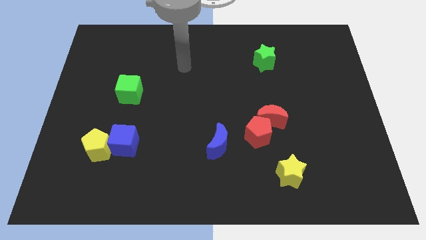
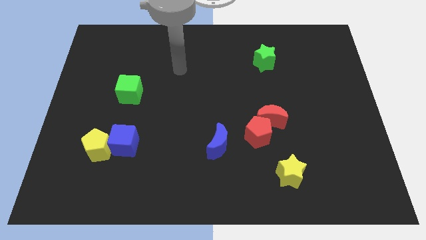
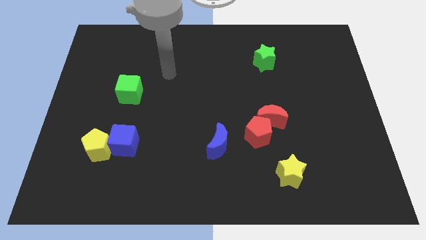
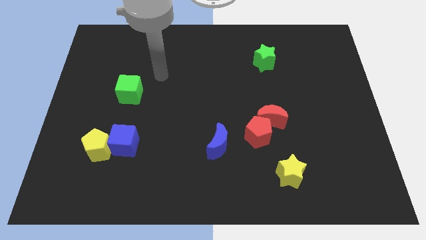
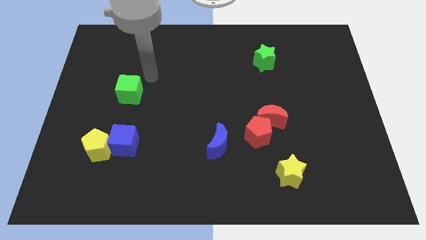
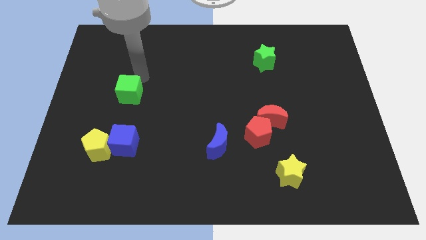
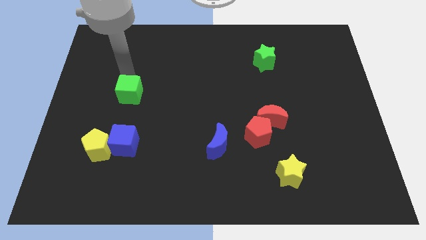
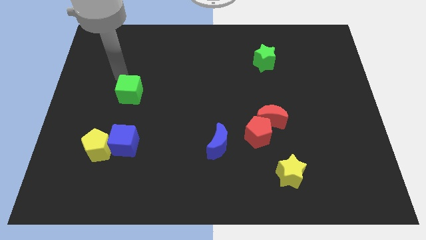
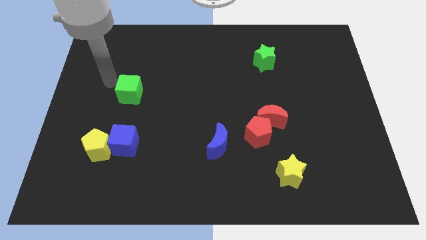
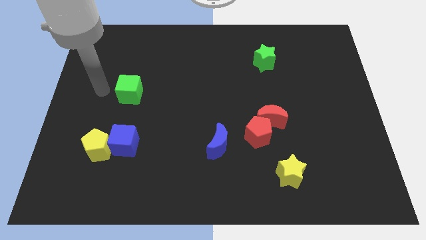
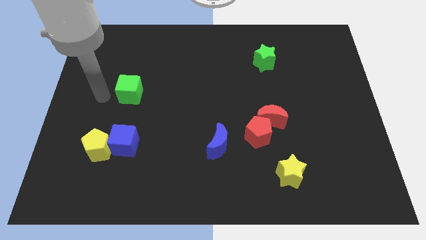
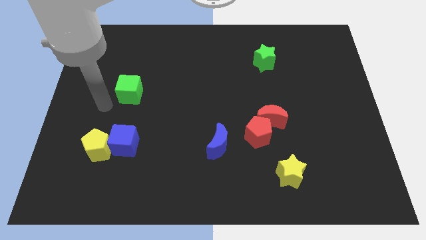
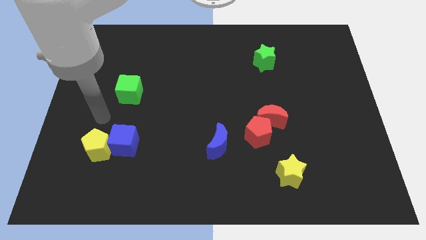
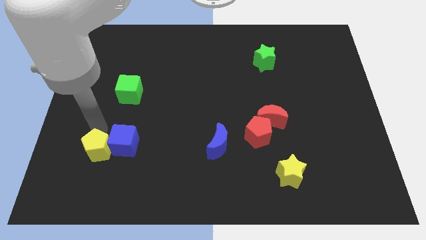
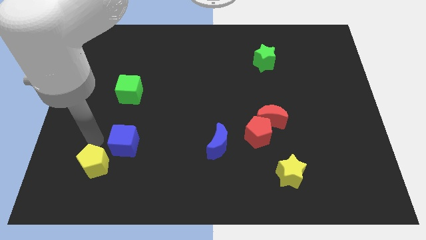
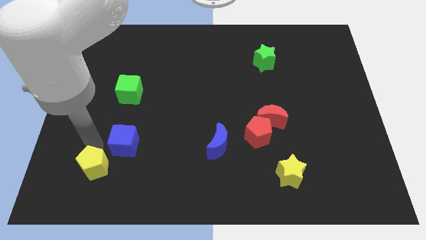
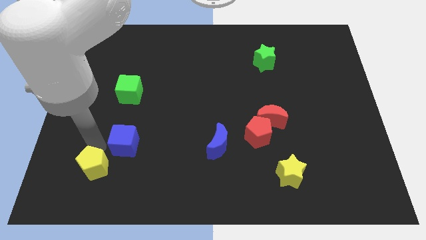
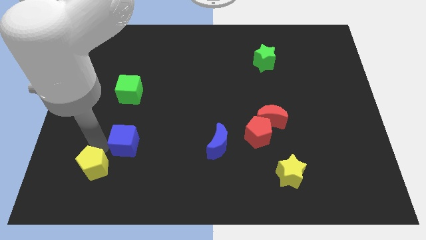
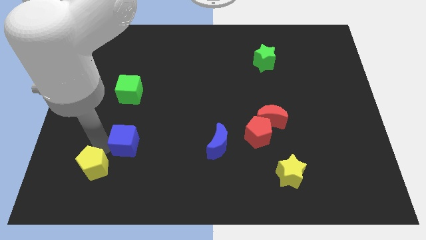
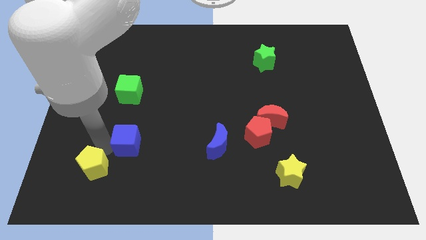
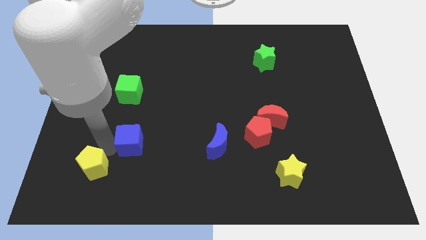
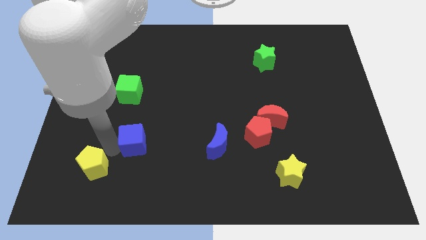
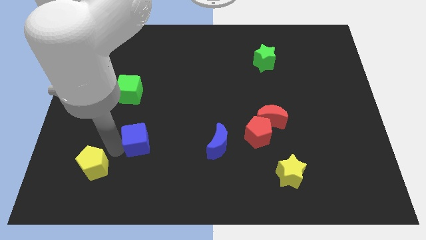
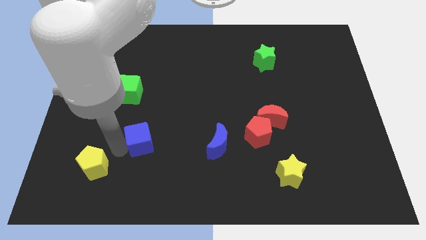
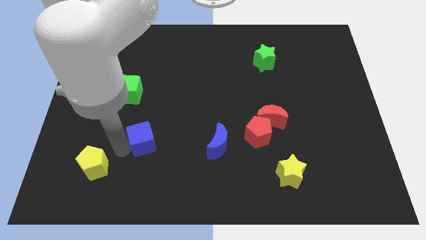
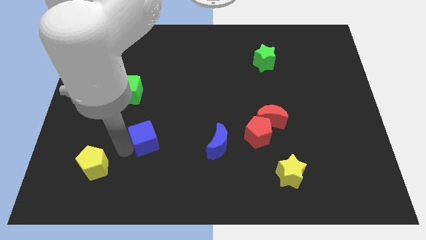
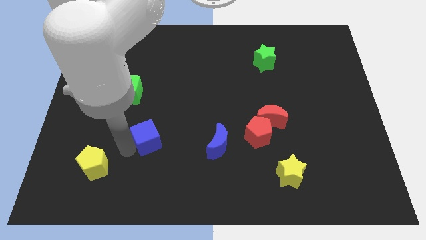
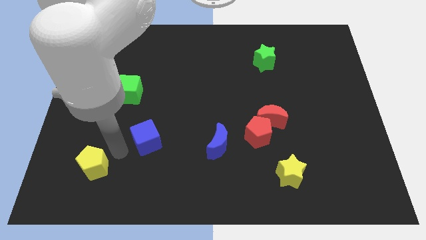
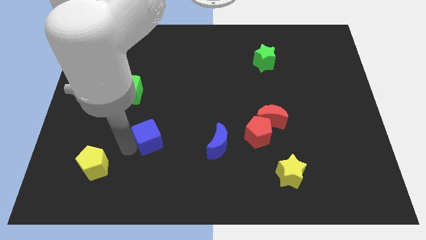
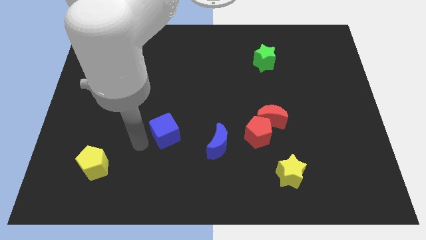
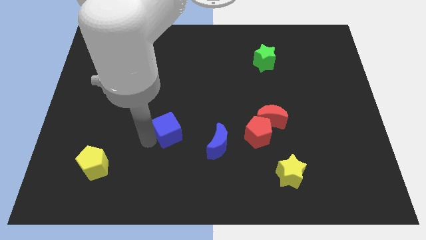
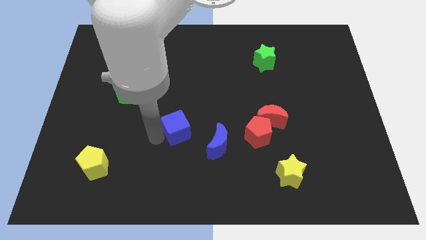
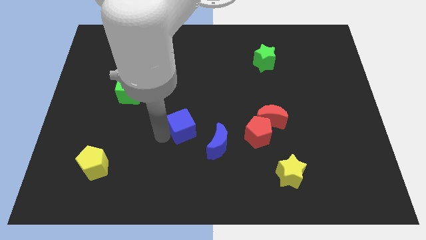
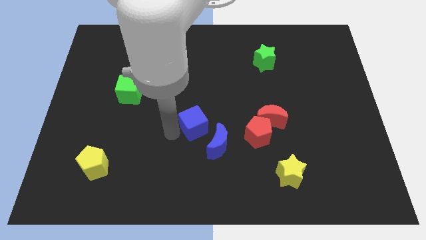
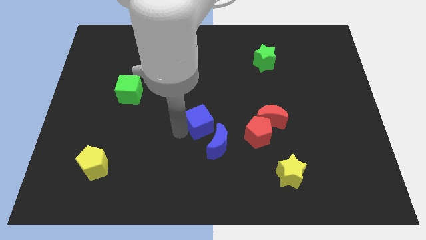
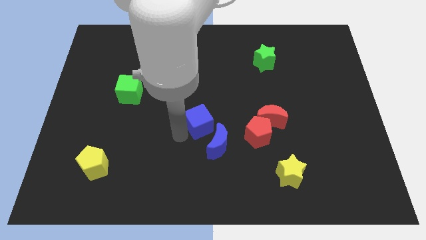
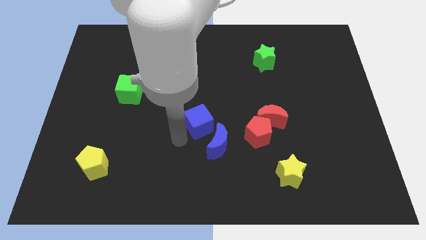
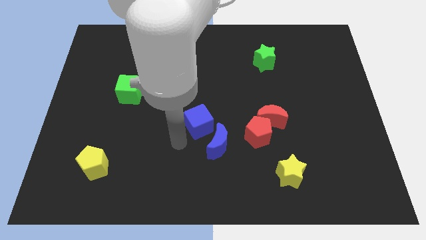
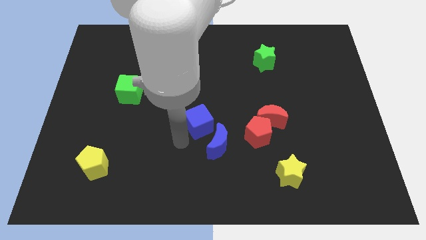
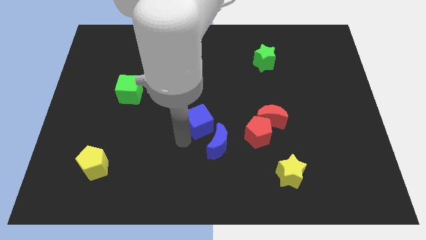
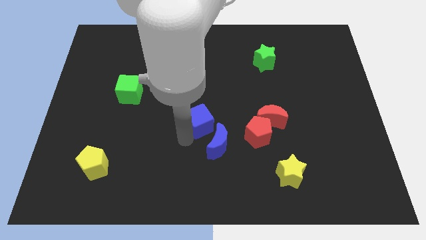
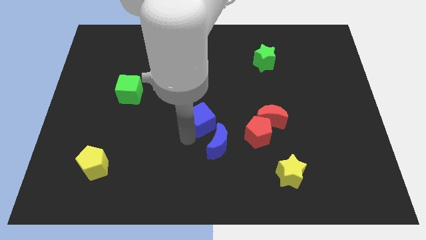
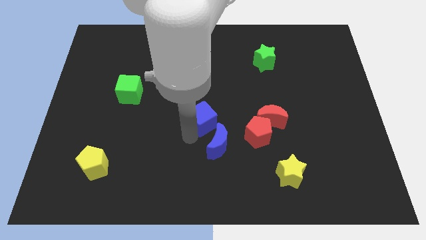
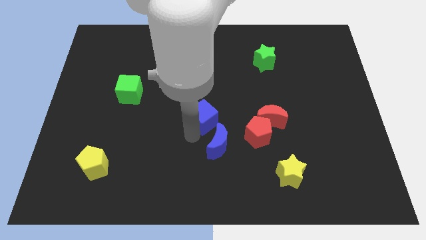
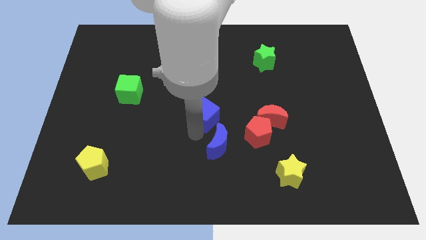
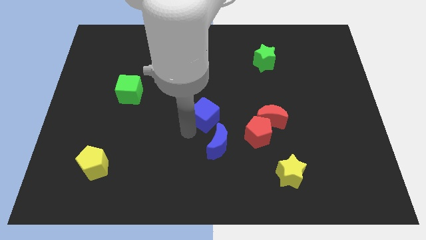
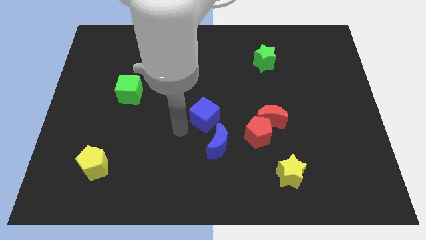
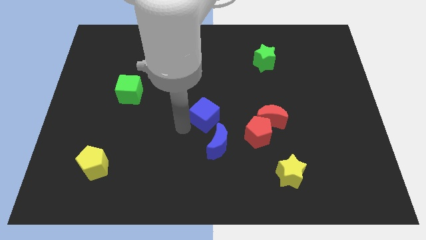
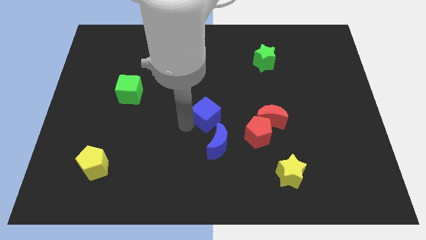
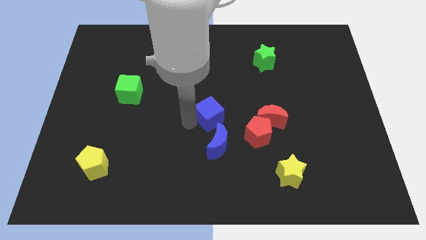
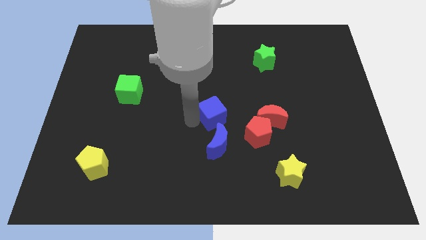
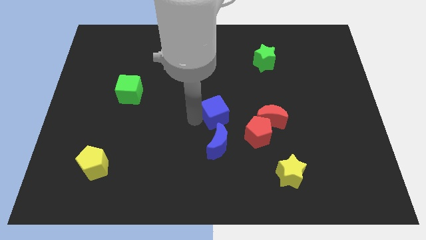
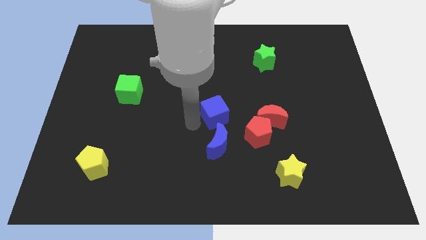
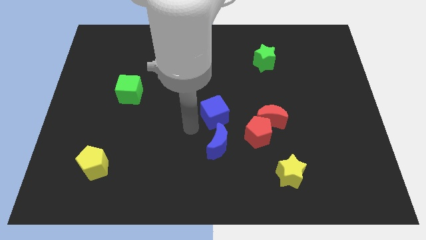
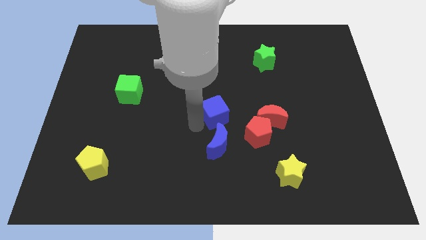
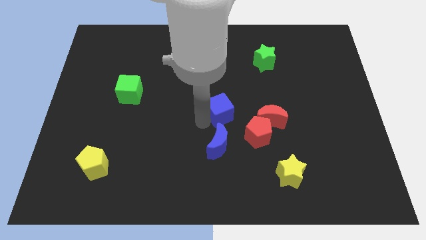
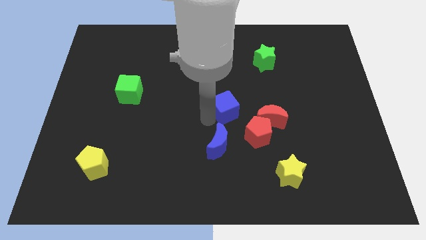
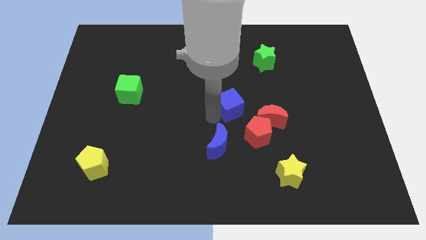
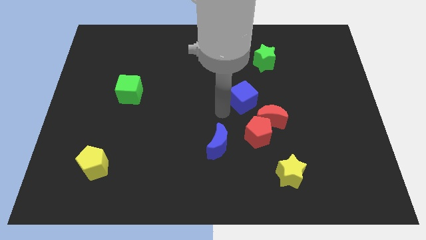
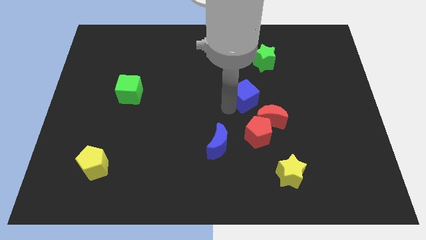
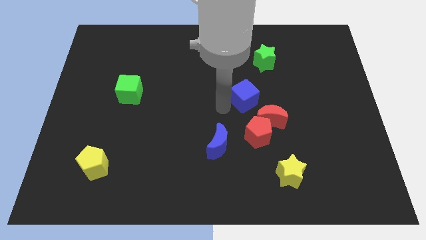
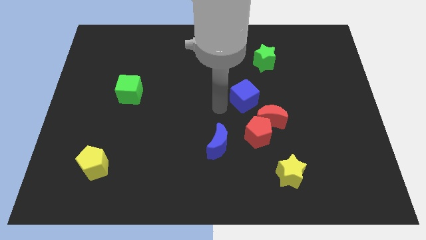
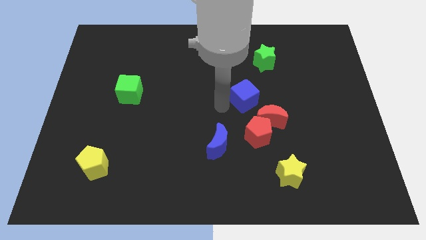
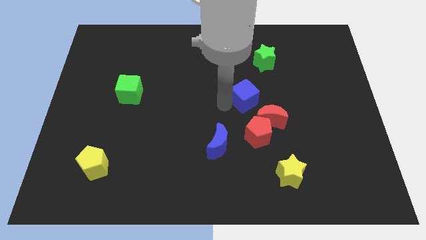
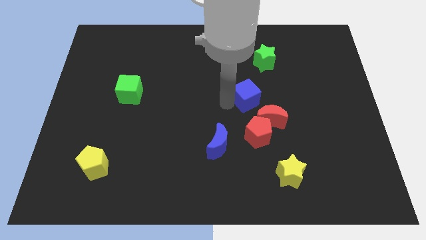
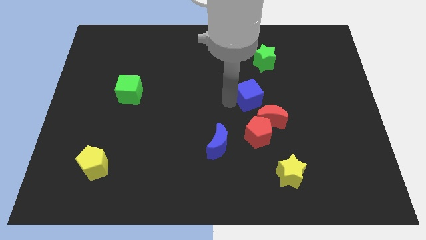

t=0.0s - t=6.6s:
push the blue cube to the bottom of the green star

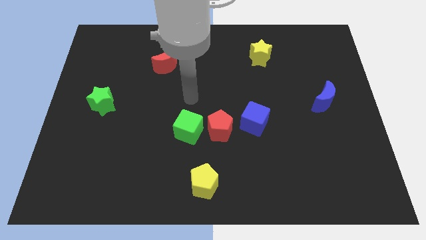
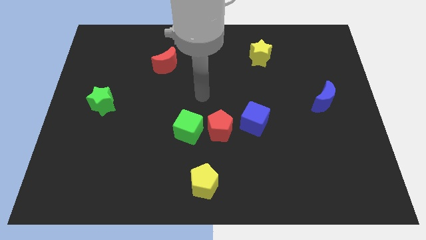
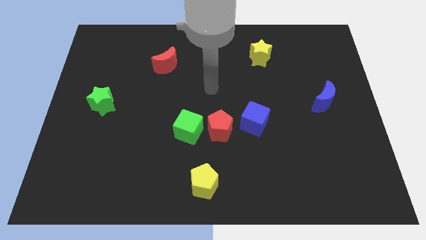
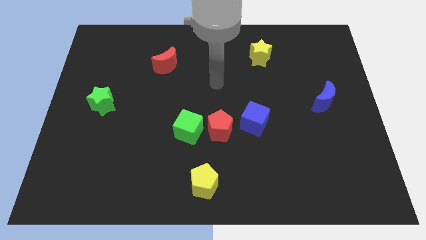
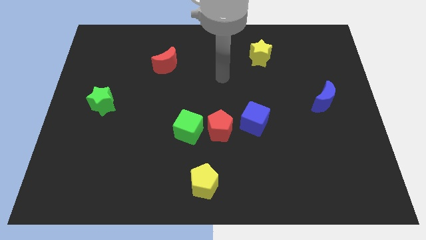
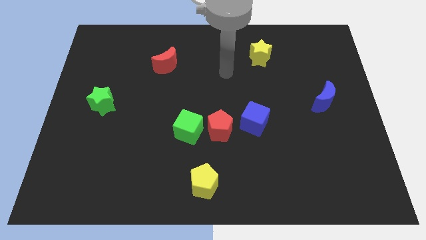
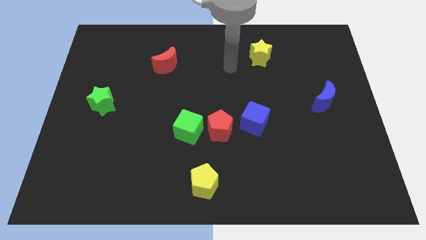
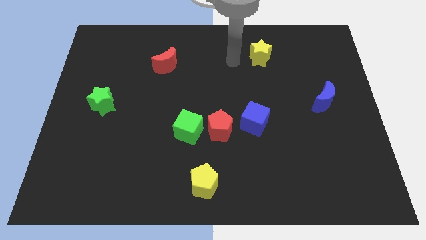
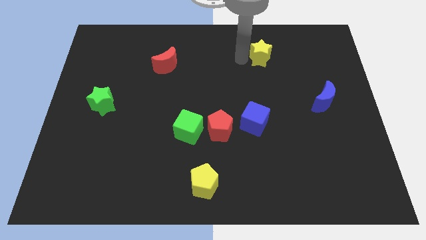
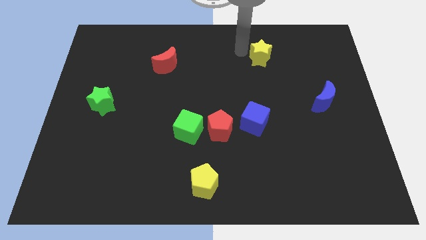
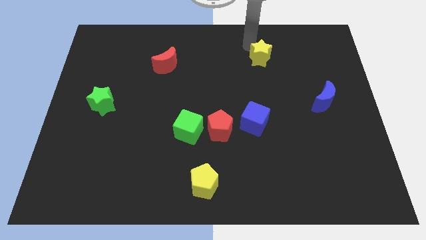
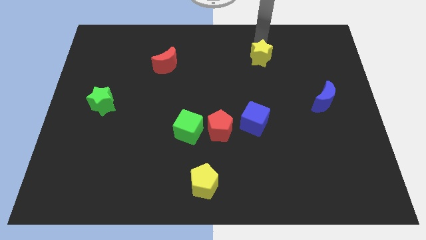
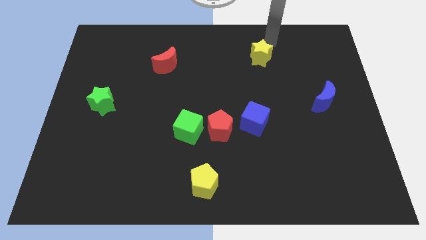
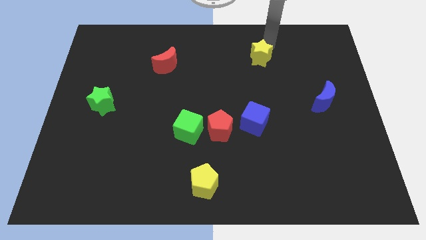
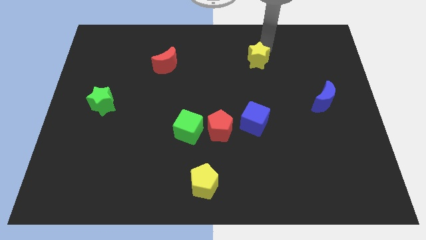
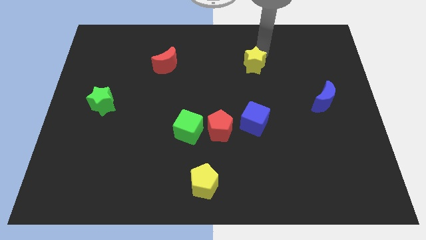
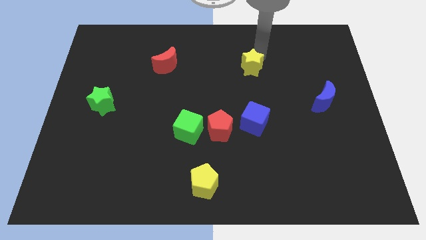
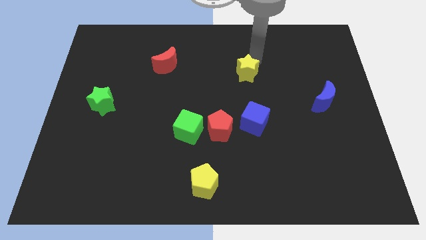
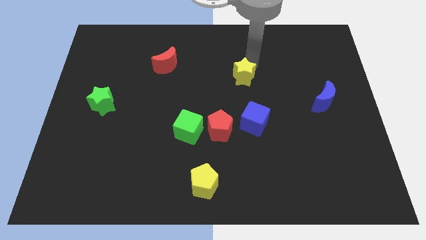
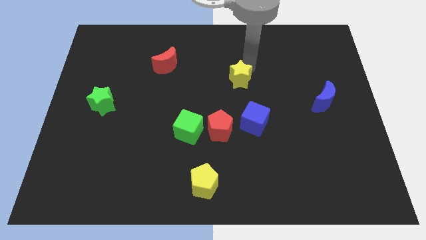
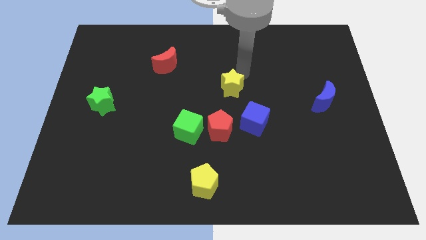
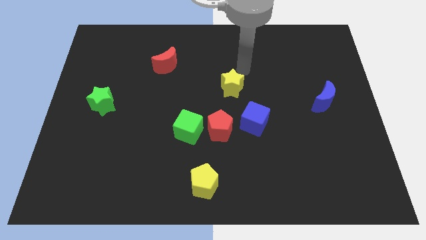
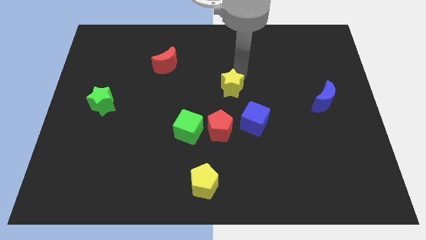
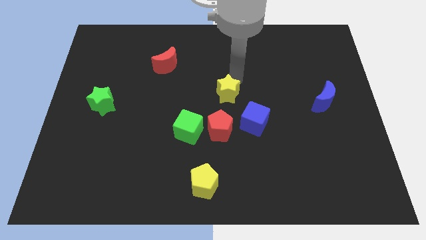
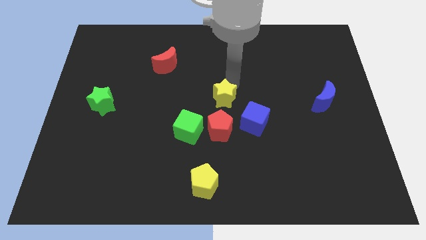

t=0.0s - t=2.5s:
push the yellow star to the top right of the green cube
